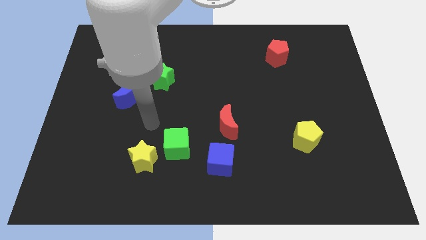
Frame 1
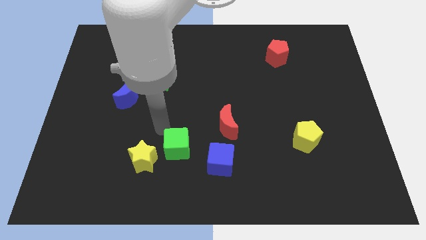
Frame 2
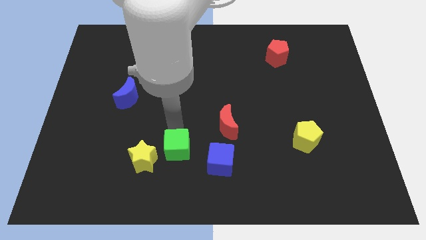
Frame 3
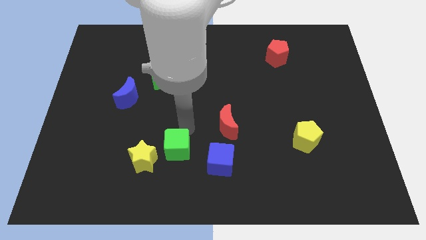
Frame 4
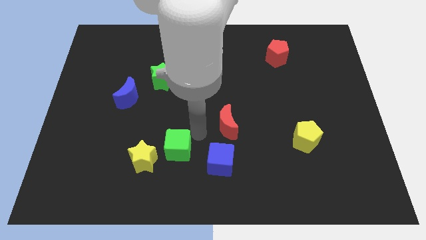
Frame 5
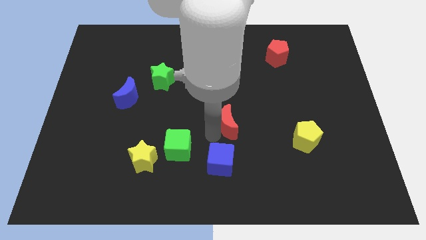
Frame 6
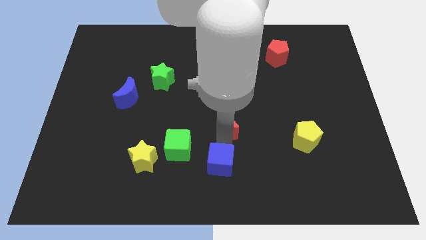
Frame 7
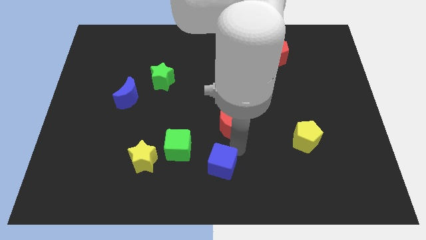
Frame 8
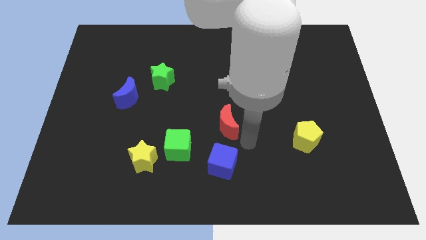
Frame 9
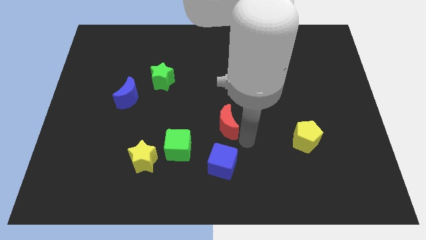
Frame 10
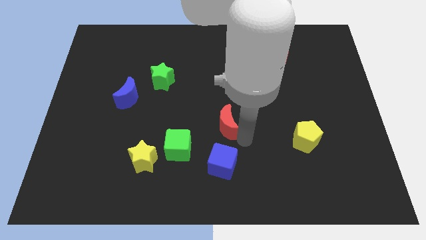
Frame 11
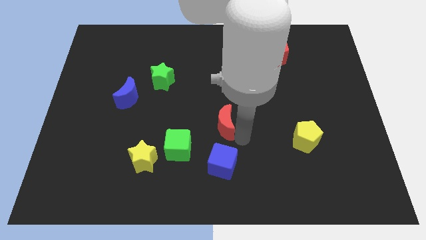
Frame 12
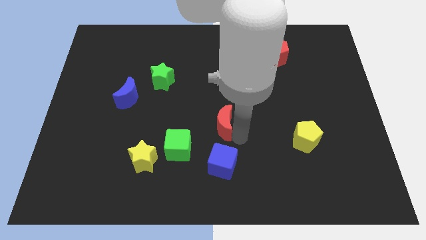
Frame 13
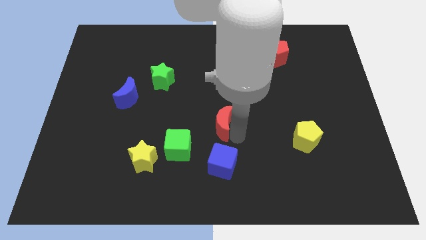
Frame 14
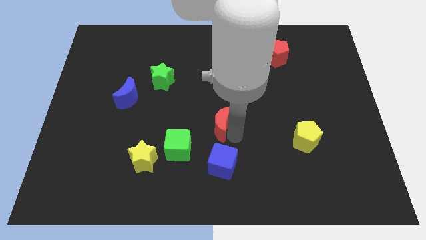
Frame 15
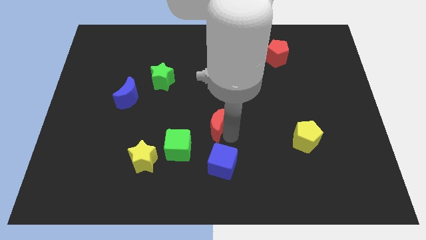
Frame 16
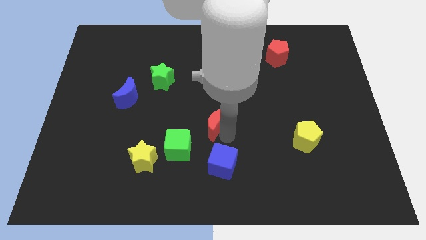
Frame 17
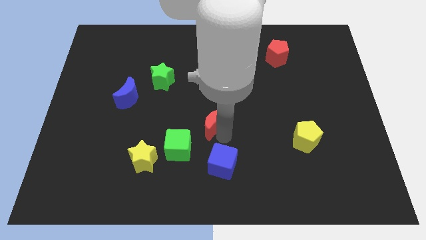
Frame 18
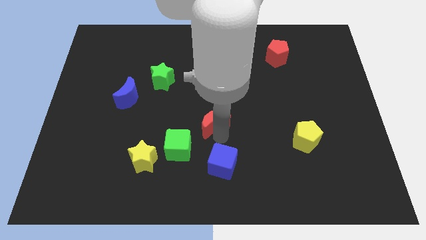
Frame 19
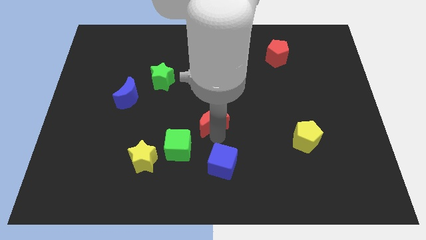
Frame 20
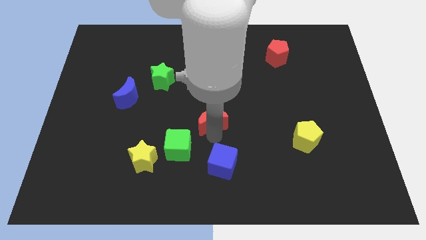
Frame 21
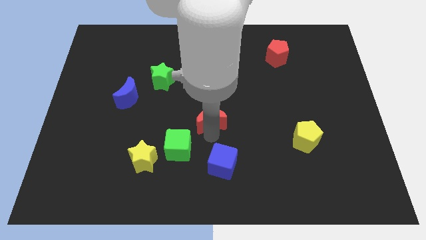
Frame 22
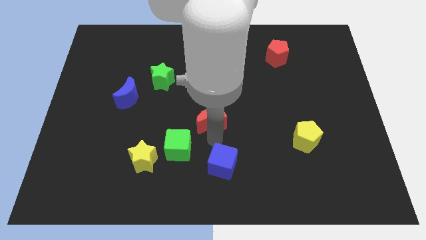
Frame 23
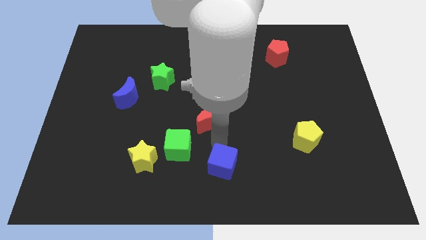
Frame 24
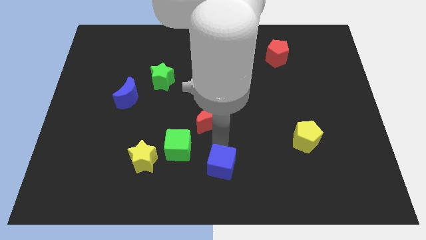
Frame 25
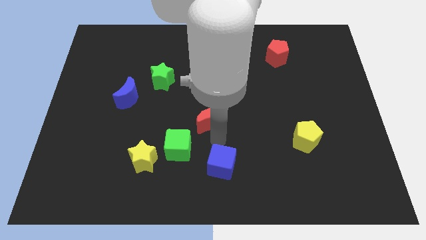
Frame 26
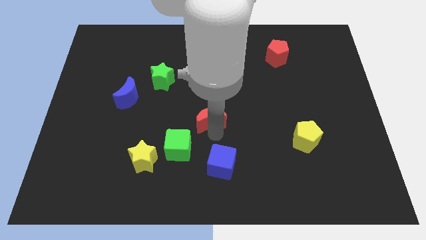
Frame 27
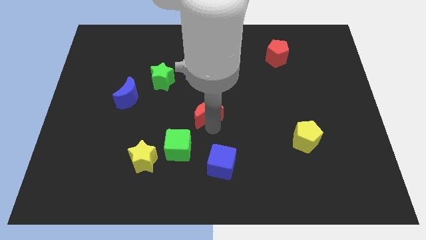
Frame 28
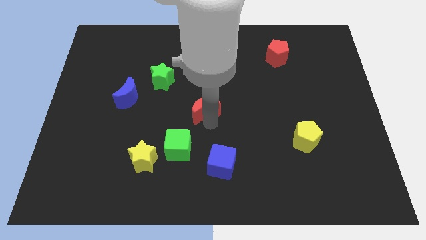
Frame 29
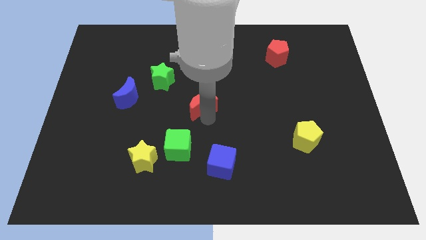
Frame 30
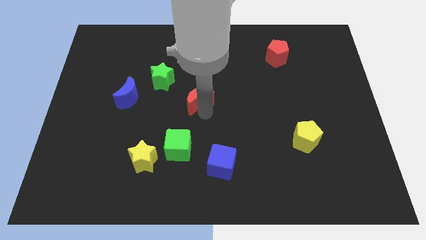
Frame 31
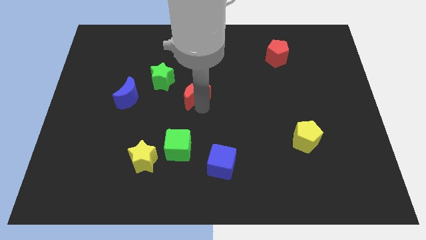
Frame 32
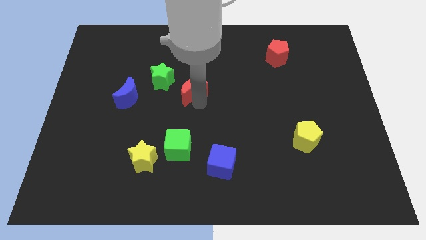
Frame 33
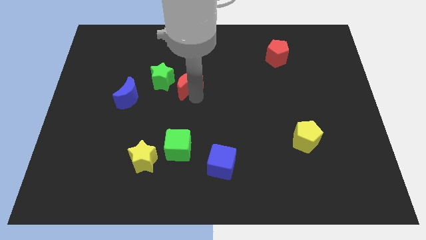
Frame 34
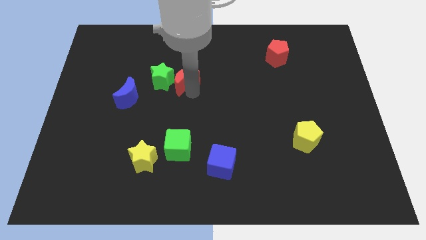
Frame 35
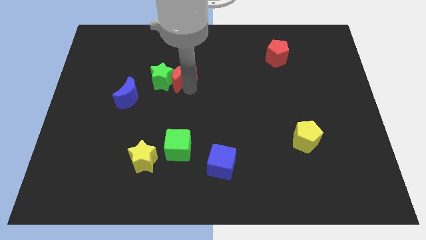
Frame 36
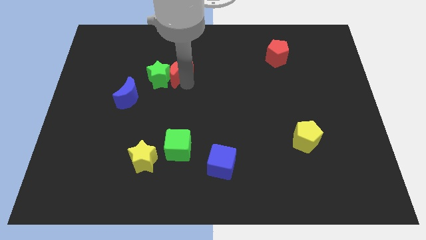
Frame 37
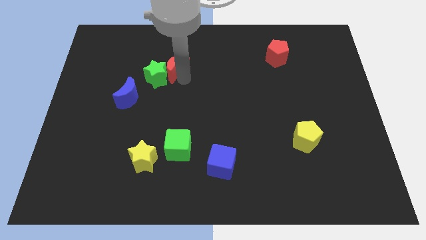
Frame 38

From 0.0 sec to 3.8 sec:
move the red moon upwards and left

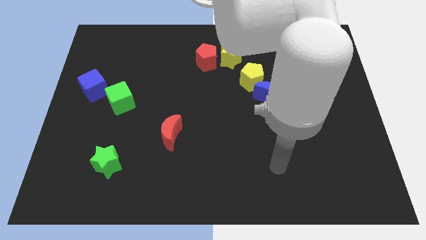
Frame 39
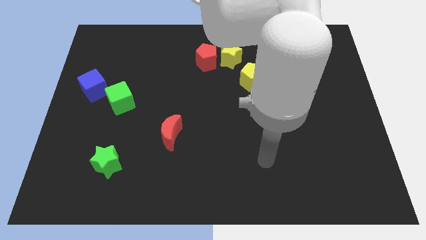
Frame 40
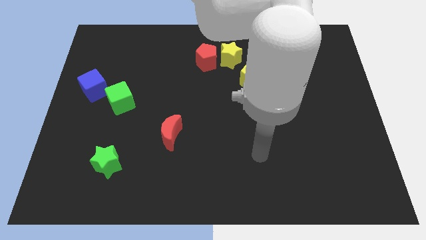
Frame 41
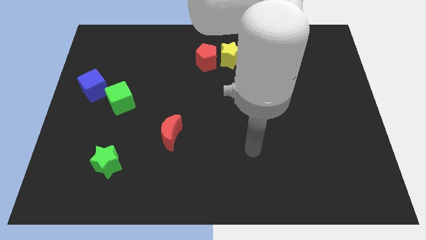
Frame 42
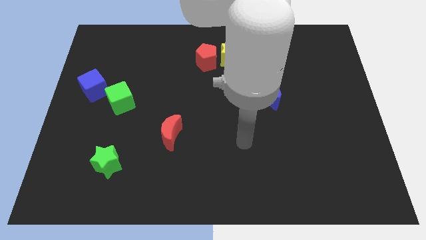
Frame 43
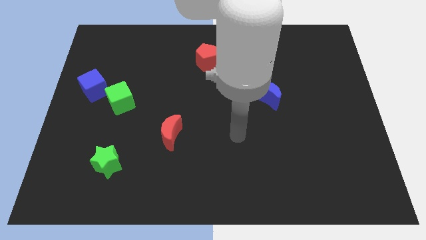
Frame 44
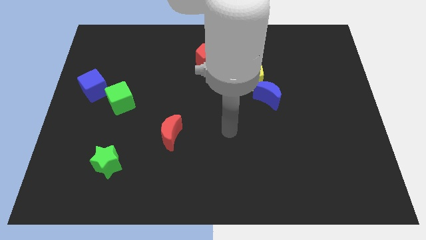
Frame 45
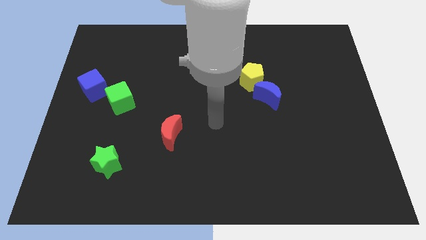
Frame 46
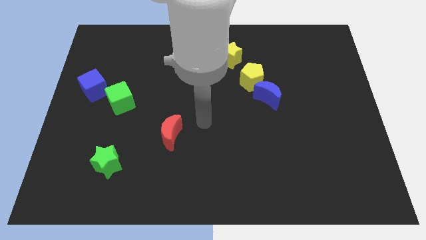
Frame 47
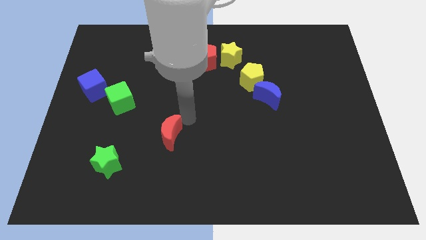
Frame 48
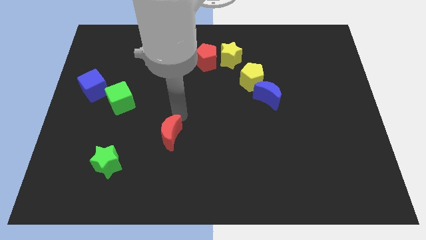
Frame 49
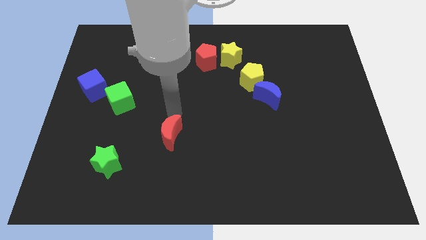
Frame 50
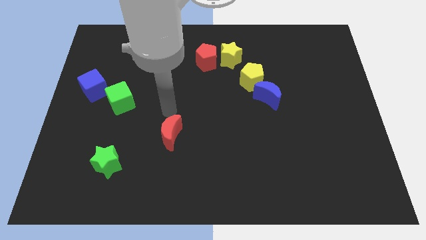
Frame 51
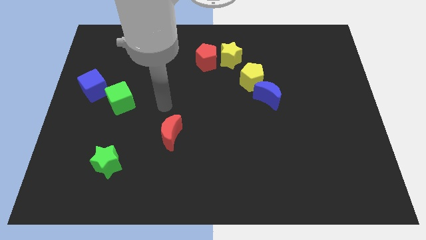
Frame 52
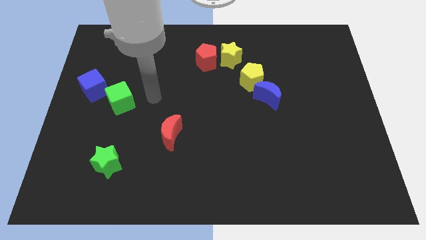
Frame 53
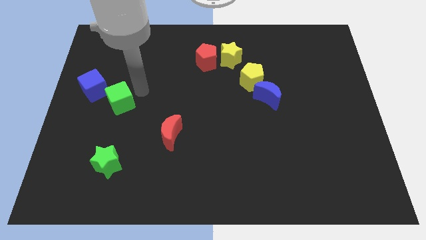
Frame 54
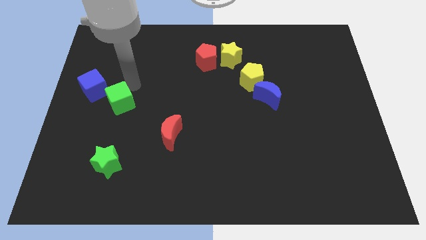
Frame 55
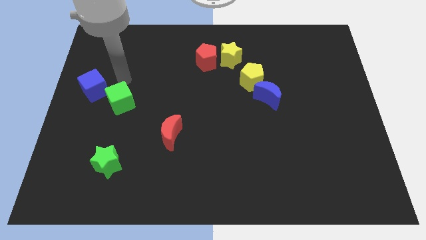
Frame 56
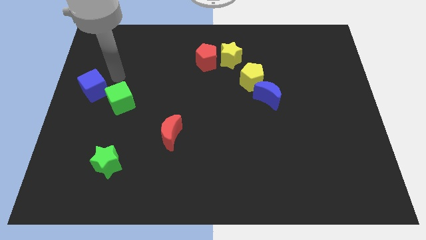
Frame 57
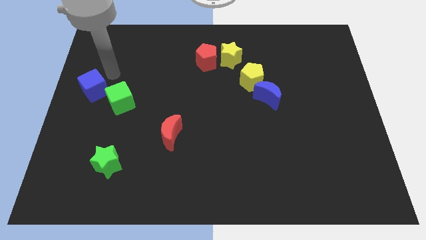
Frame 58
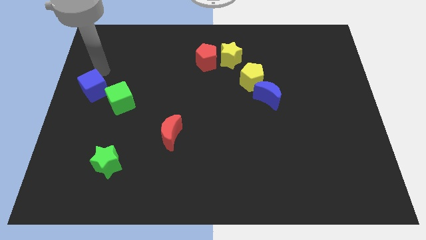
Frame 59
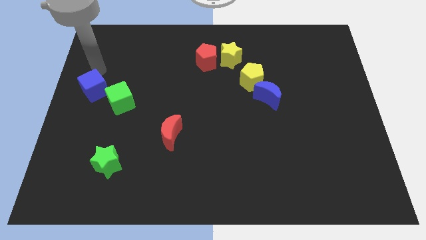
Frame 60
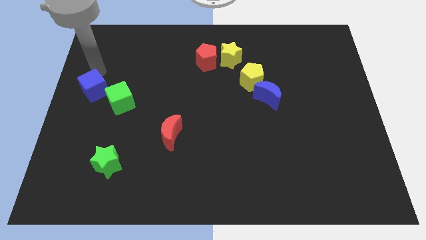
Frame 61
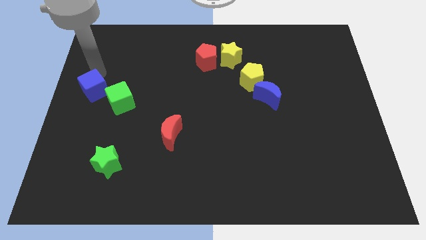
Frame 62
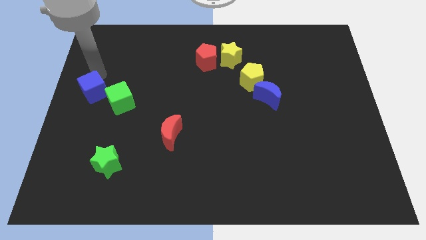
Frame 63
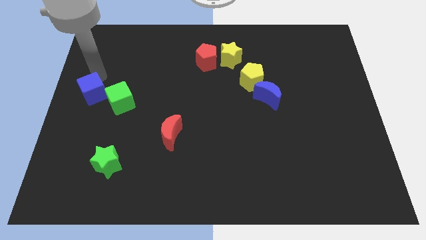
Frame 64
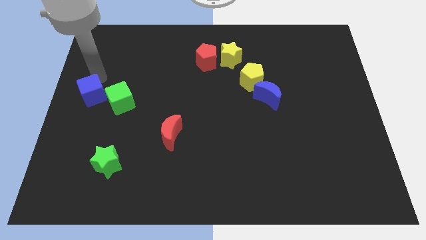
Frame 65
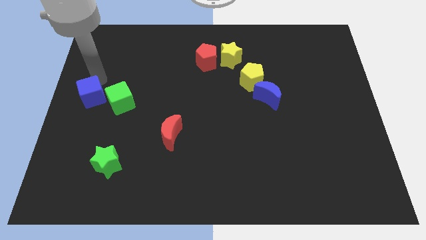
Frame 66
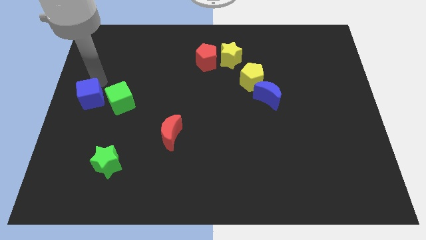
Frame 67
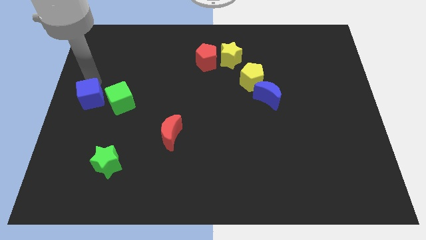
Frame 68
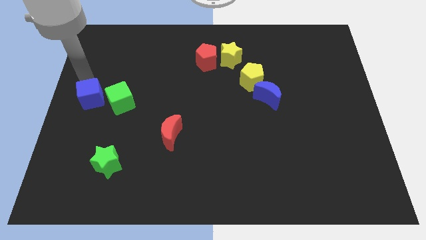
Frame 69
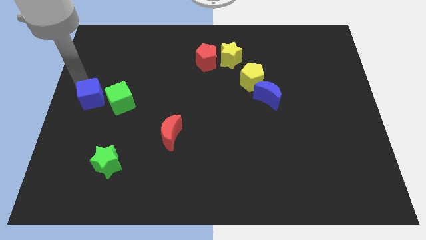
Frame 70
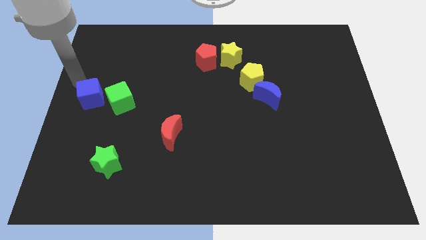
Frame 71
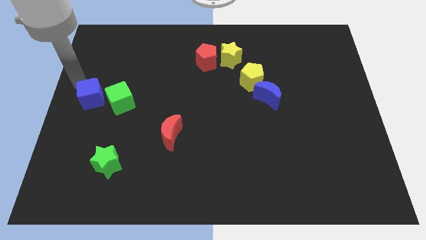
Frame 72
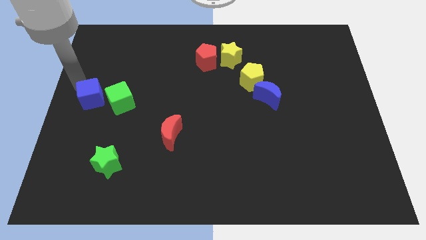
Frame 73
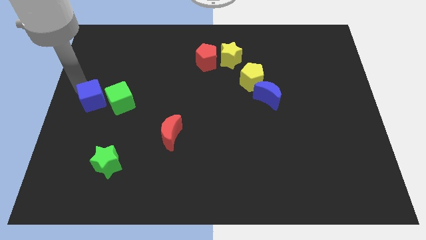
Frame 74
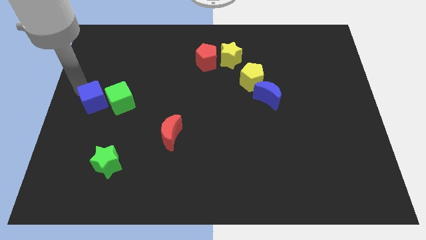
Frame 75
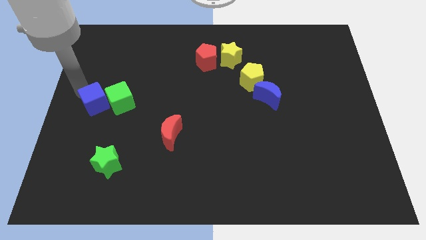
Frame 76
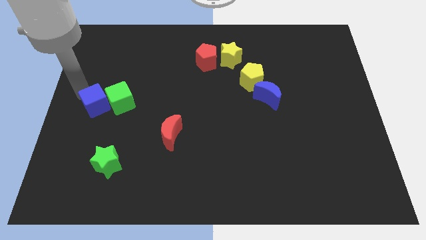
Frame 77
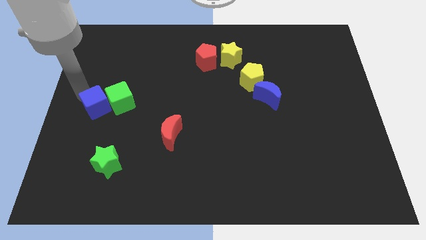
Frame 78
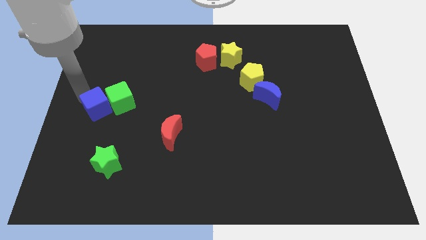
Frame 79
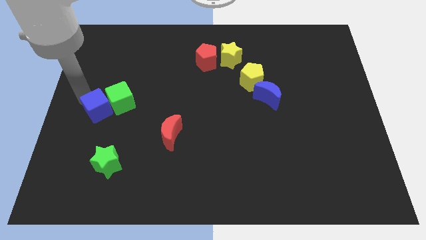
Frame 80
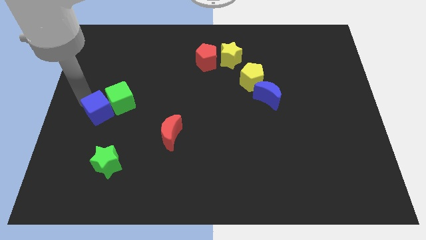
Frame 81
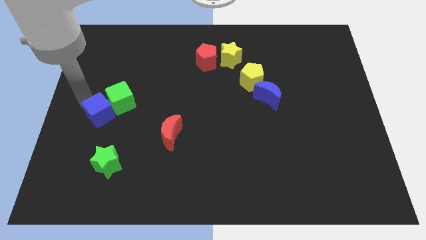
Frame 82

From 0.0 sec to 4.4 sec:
move the blue cube a little diagonally downwards and to the right
